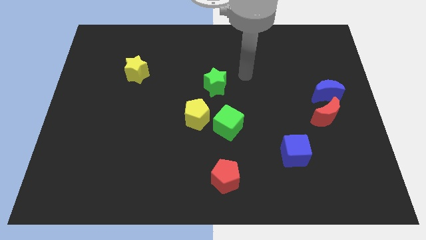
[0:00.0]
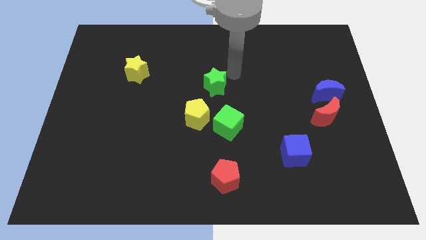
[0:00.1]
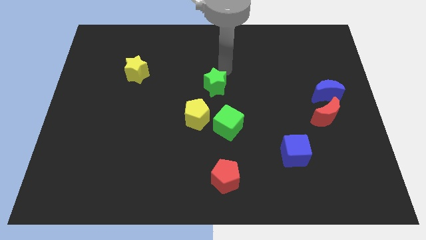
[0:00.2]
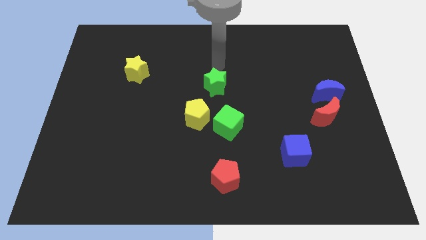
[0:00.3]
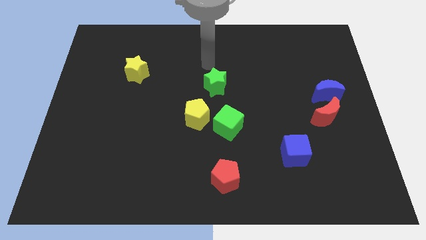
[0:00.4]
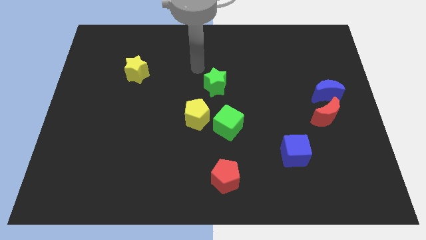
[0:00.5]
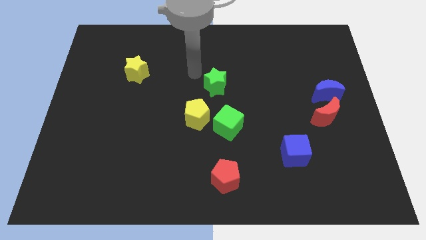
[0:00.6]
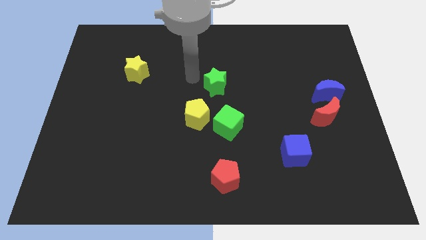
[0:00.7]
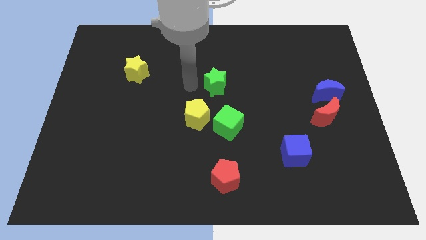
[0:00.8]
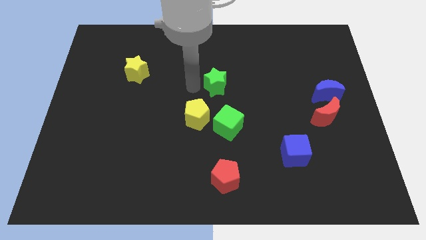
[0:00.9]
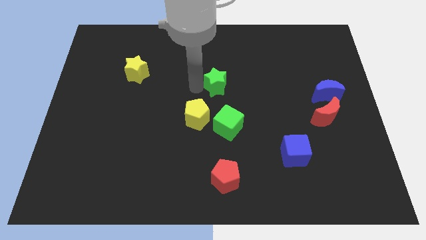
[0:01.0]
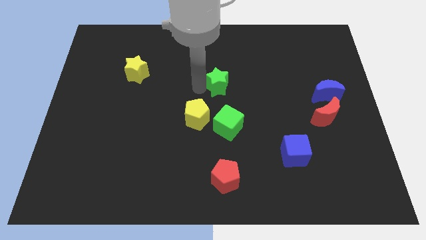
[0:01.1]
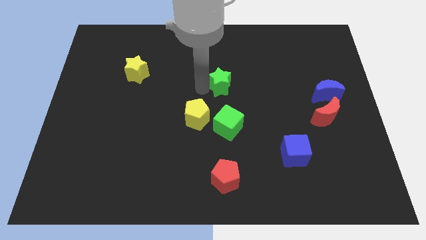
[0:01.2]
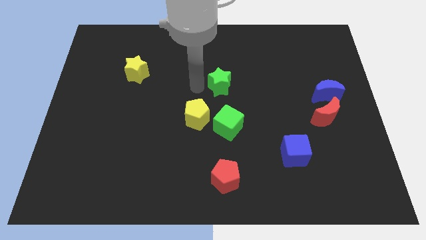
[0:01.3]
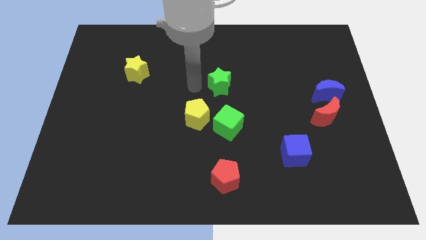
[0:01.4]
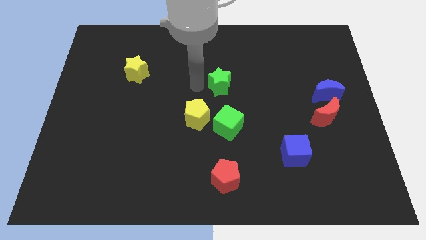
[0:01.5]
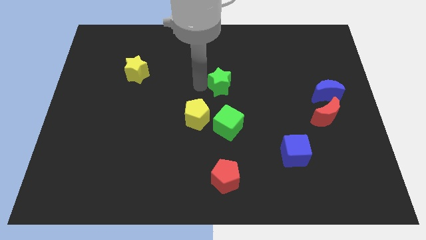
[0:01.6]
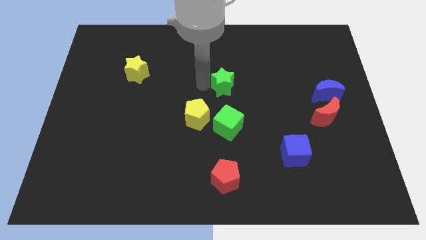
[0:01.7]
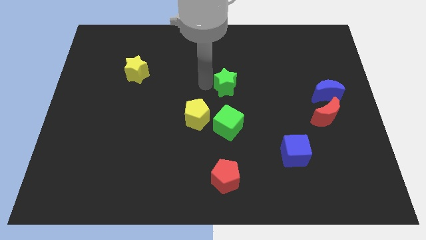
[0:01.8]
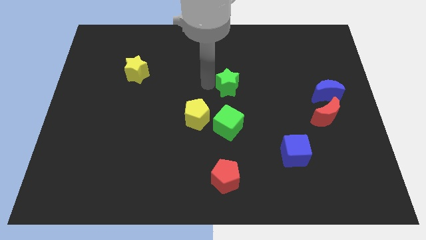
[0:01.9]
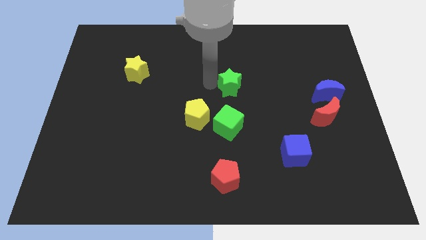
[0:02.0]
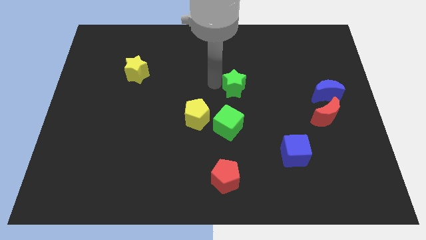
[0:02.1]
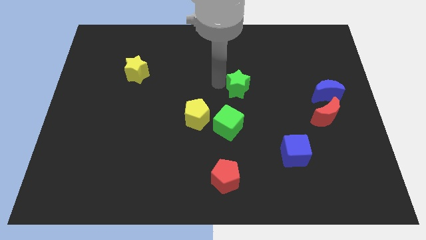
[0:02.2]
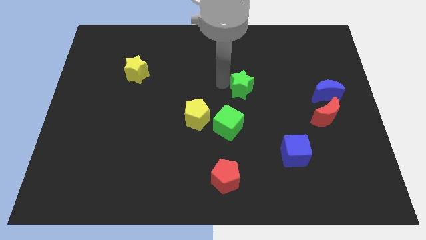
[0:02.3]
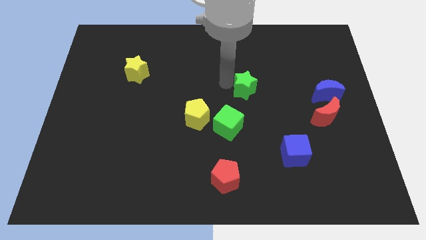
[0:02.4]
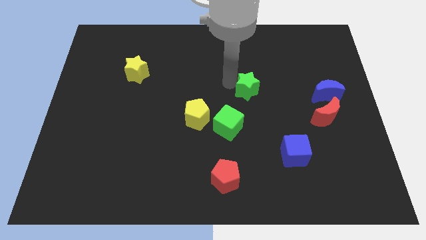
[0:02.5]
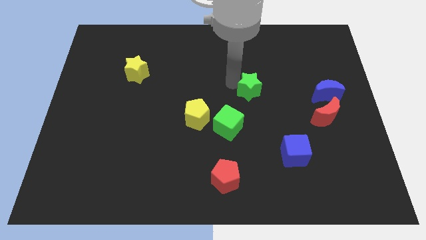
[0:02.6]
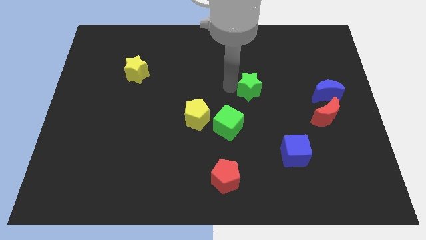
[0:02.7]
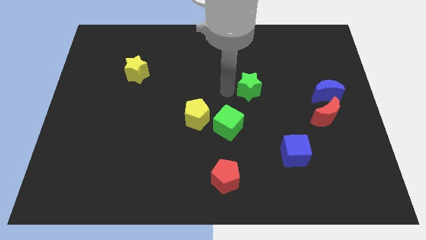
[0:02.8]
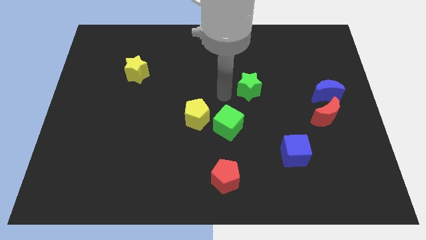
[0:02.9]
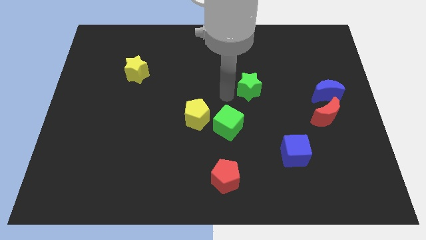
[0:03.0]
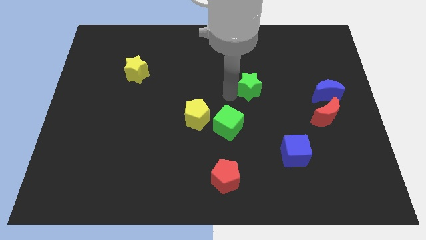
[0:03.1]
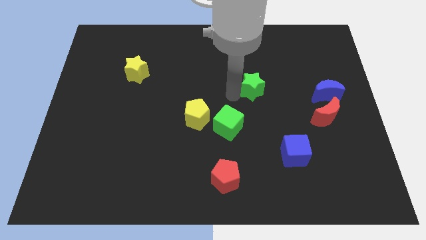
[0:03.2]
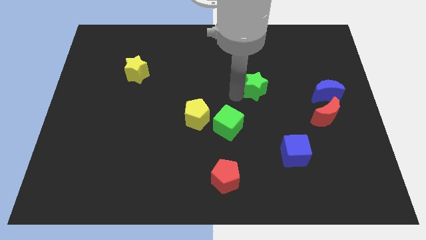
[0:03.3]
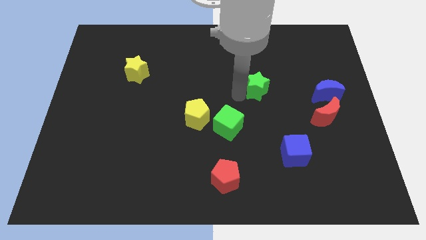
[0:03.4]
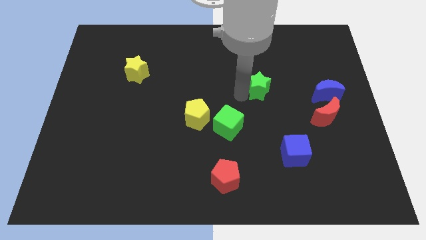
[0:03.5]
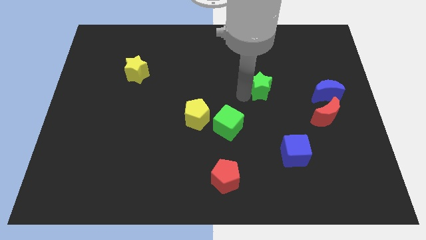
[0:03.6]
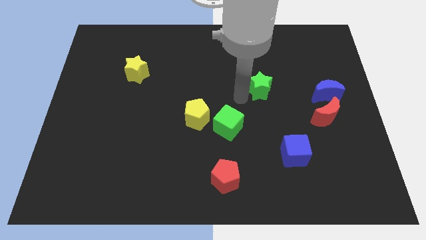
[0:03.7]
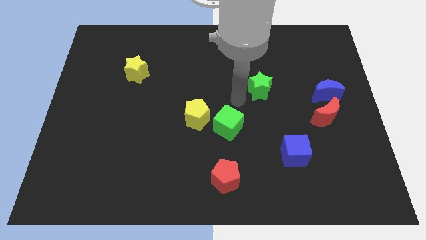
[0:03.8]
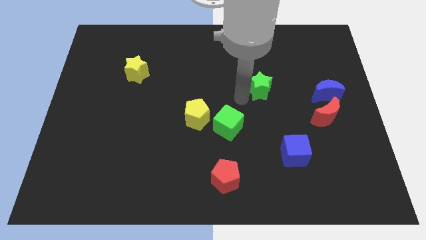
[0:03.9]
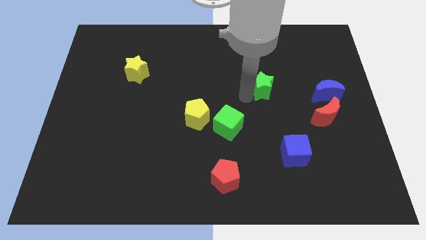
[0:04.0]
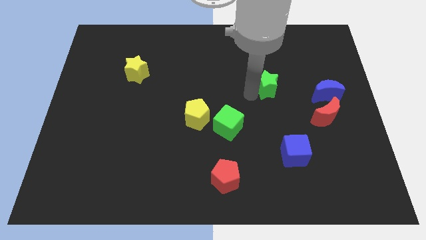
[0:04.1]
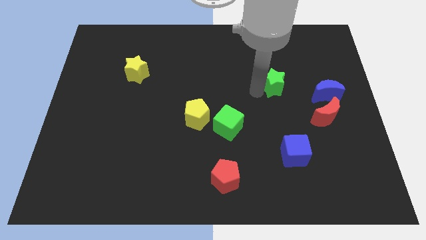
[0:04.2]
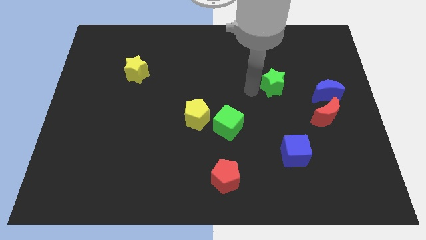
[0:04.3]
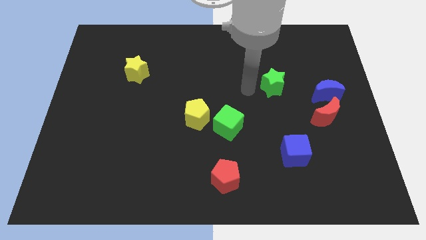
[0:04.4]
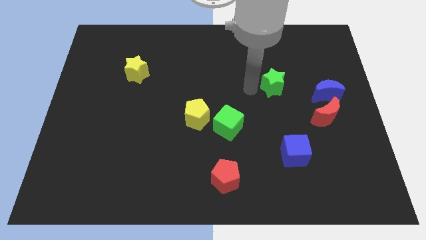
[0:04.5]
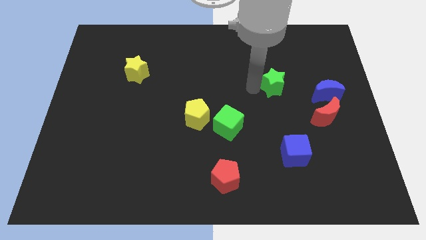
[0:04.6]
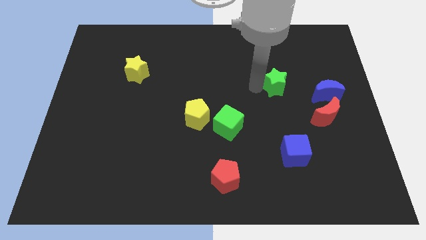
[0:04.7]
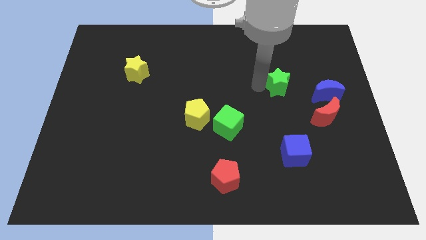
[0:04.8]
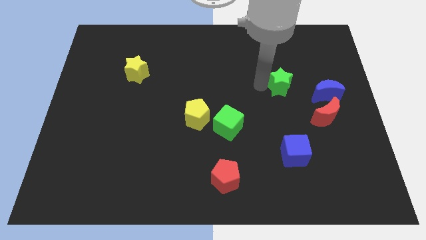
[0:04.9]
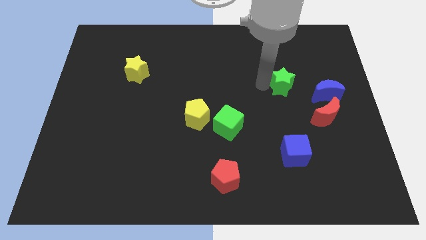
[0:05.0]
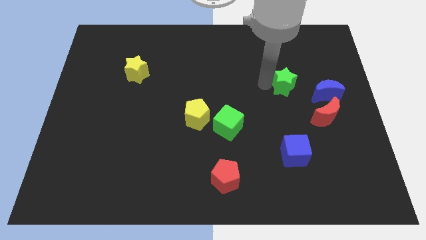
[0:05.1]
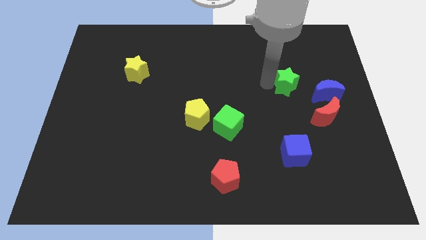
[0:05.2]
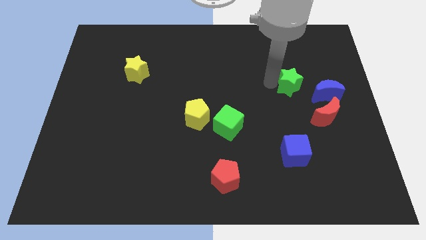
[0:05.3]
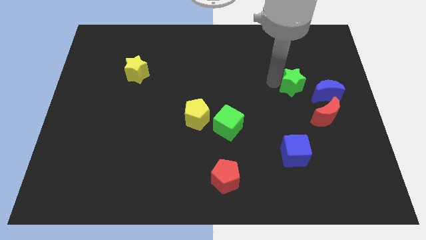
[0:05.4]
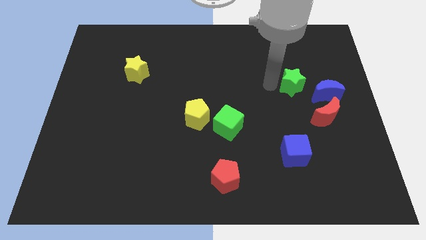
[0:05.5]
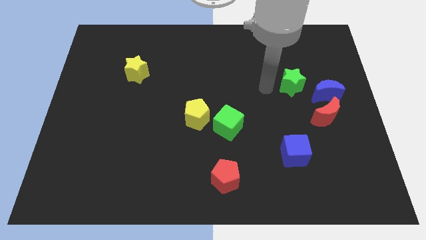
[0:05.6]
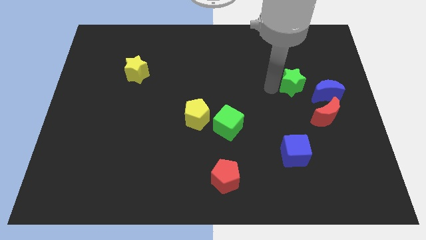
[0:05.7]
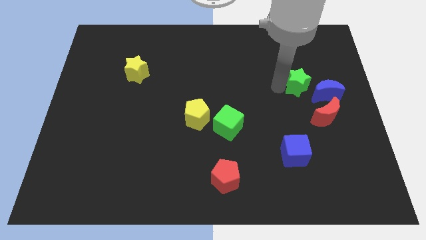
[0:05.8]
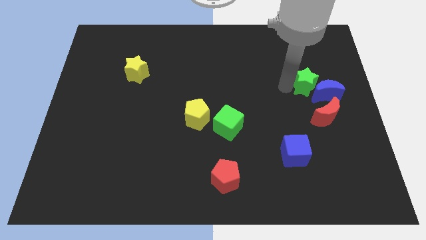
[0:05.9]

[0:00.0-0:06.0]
slide the green star to the top of the red moon

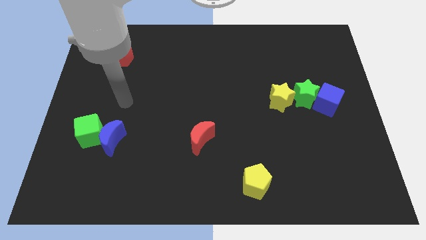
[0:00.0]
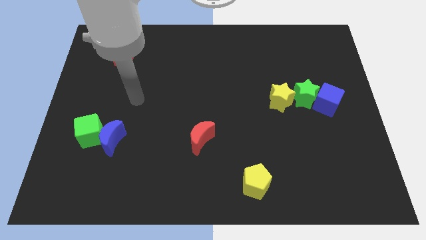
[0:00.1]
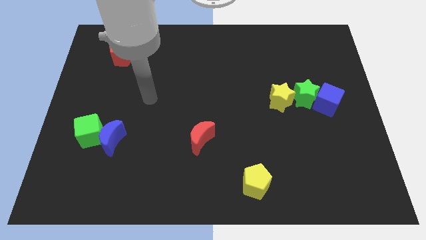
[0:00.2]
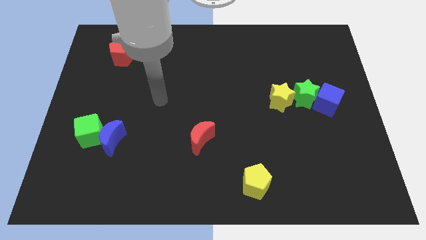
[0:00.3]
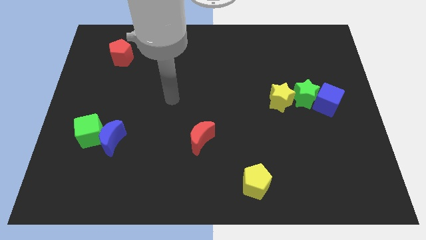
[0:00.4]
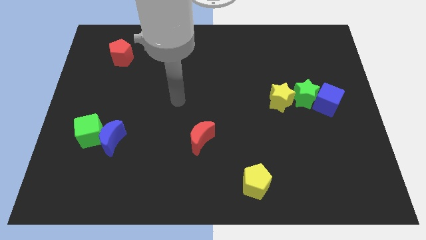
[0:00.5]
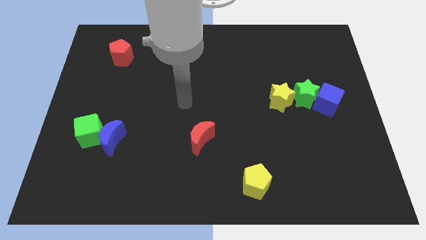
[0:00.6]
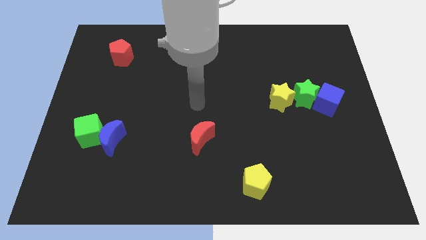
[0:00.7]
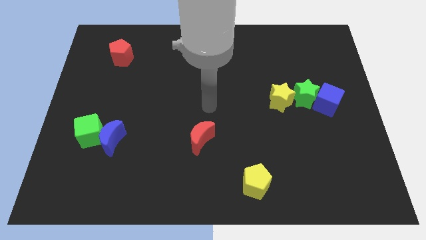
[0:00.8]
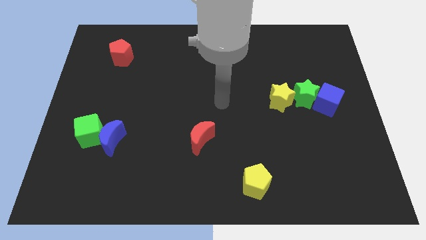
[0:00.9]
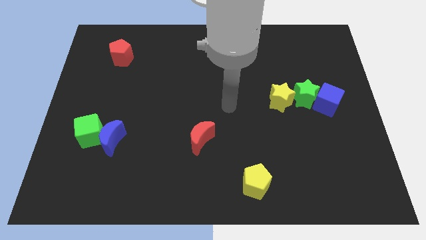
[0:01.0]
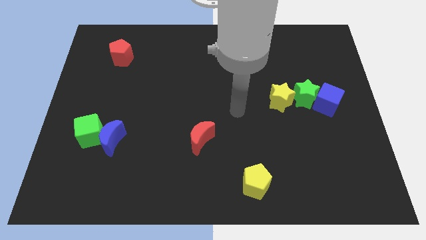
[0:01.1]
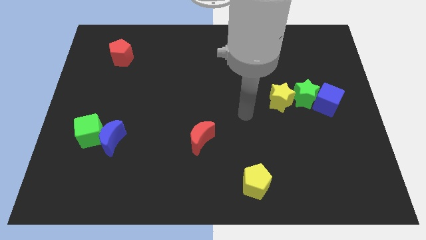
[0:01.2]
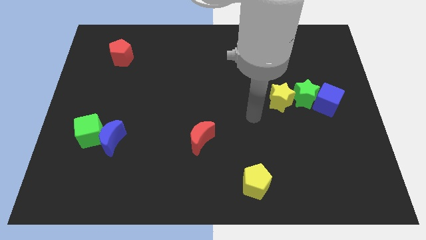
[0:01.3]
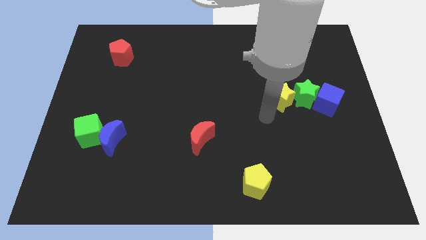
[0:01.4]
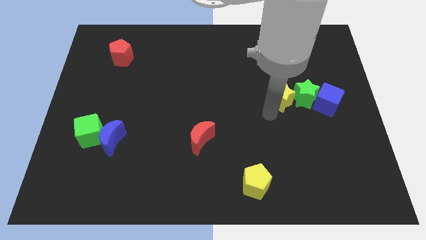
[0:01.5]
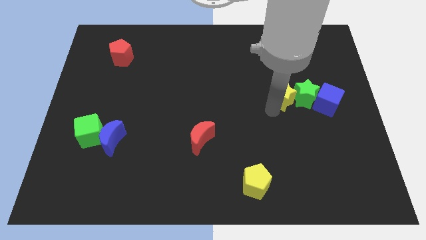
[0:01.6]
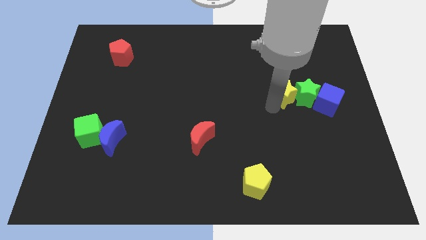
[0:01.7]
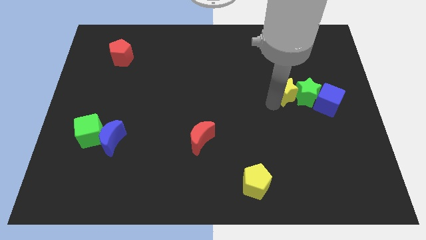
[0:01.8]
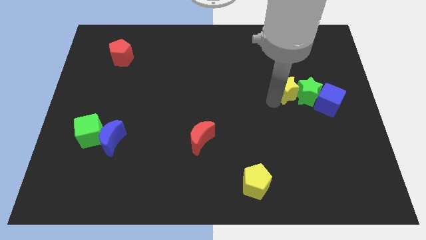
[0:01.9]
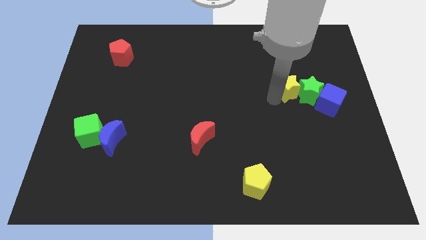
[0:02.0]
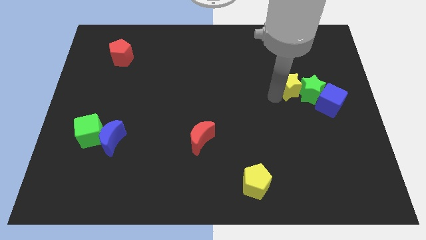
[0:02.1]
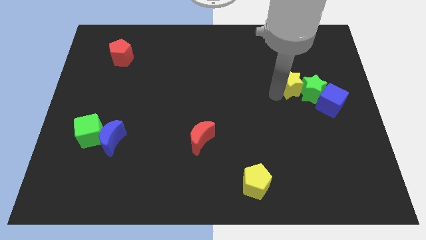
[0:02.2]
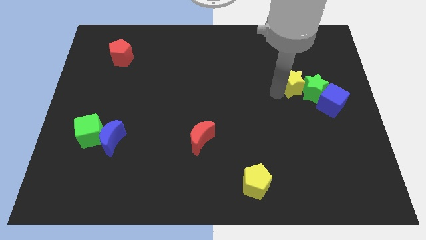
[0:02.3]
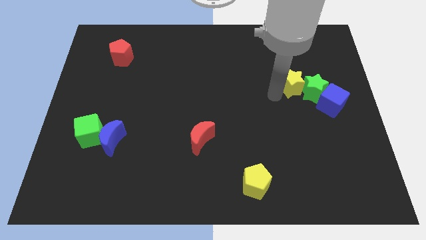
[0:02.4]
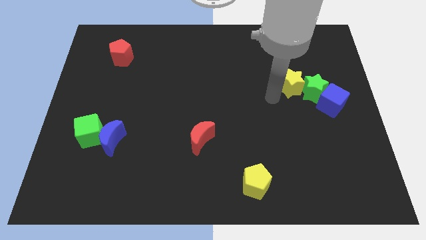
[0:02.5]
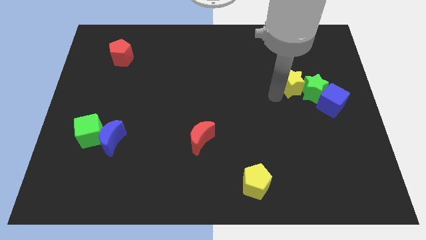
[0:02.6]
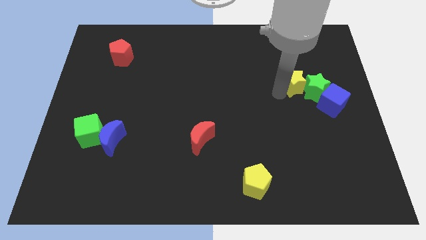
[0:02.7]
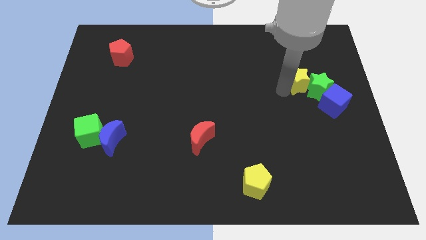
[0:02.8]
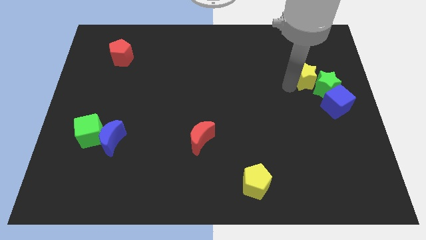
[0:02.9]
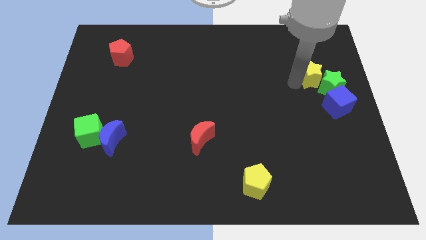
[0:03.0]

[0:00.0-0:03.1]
slide the yellow star above the blue cube
